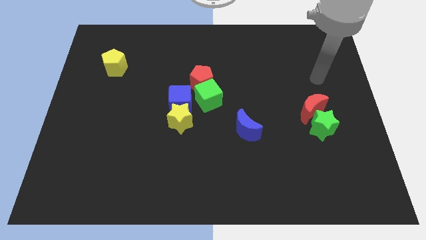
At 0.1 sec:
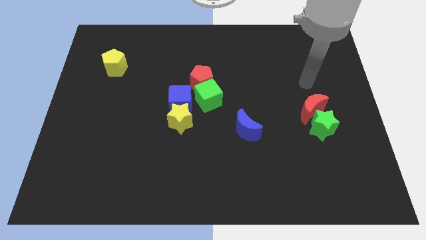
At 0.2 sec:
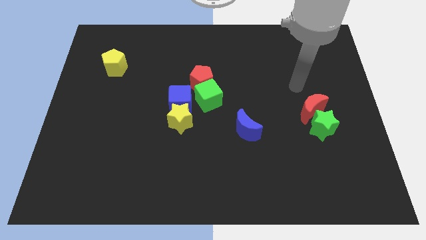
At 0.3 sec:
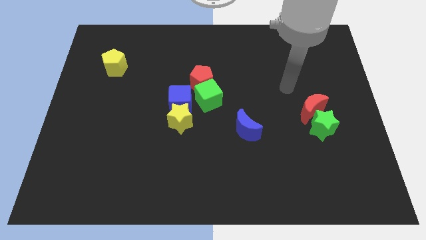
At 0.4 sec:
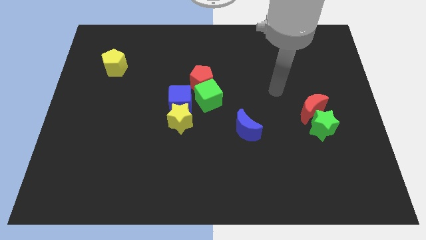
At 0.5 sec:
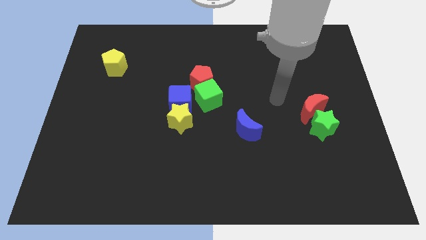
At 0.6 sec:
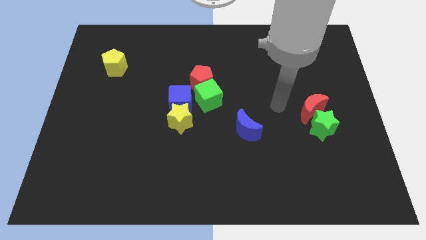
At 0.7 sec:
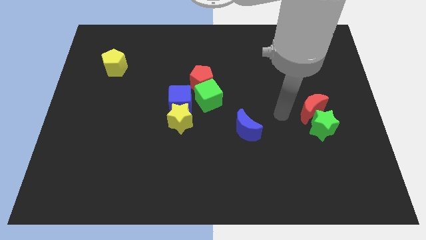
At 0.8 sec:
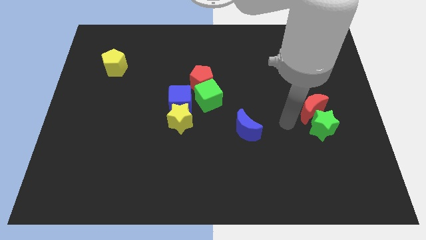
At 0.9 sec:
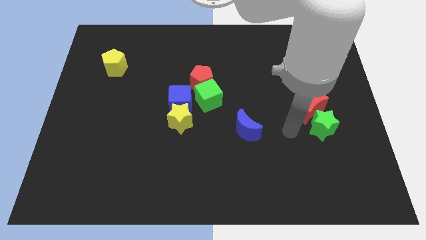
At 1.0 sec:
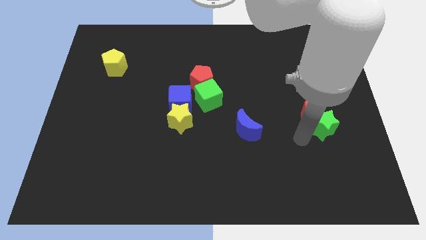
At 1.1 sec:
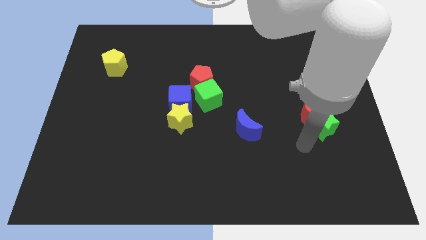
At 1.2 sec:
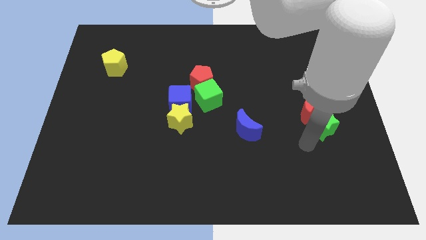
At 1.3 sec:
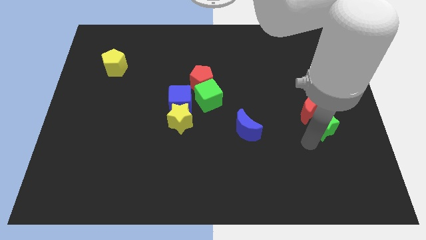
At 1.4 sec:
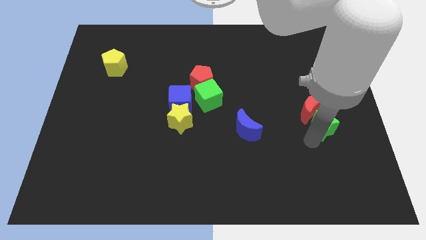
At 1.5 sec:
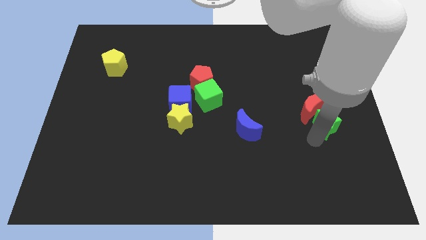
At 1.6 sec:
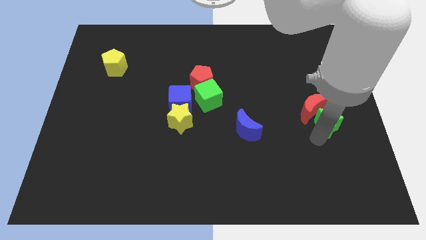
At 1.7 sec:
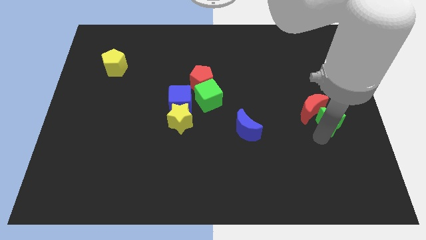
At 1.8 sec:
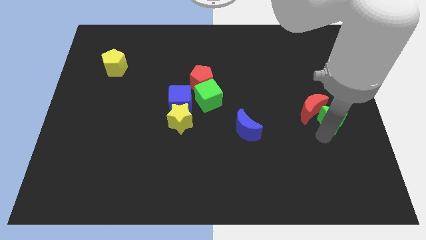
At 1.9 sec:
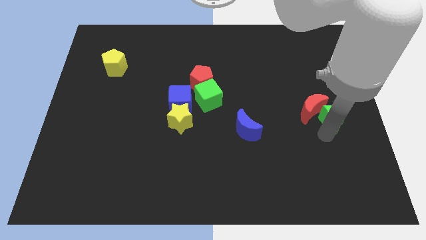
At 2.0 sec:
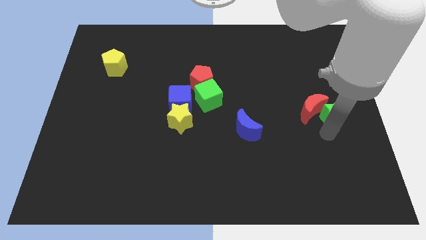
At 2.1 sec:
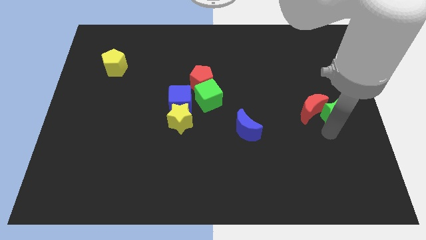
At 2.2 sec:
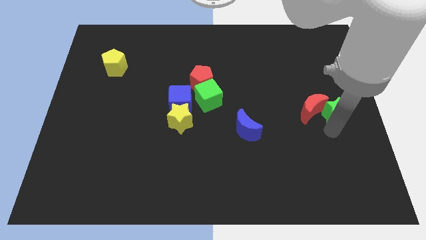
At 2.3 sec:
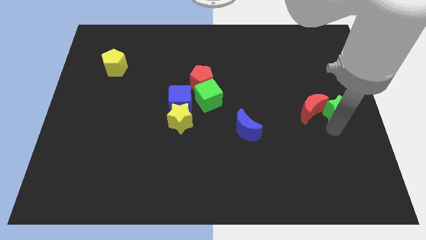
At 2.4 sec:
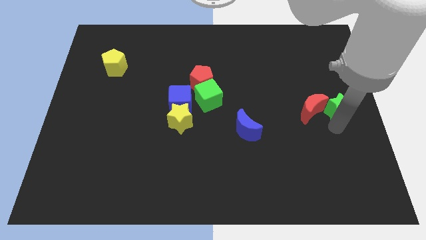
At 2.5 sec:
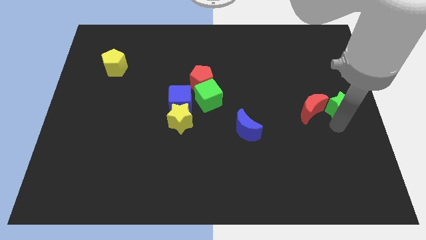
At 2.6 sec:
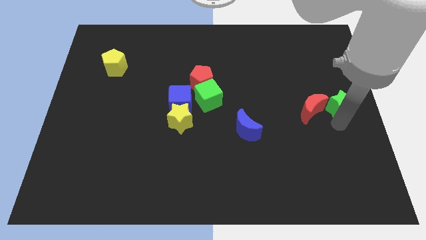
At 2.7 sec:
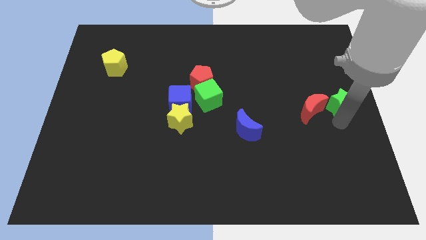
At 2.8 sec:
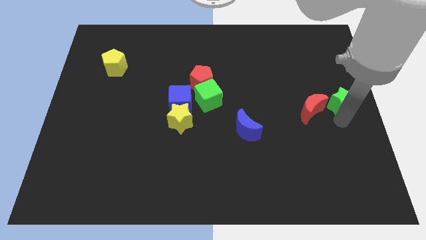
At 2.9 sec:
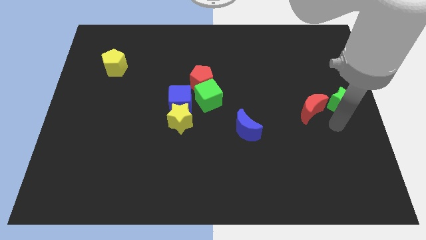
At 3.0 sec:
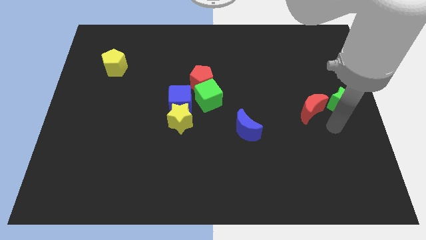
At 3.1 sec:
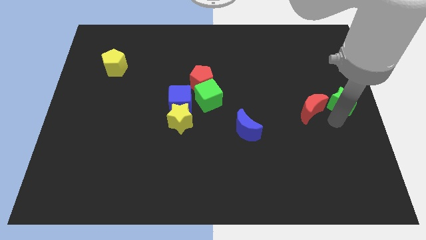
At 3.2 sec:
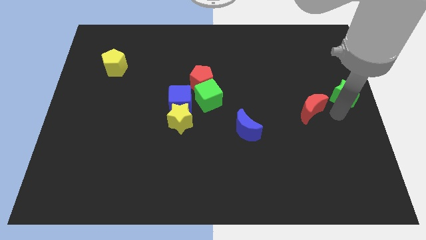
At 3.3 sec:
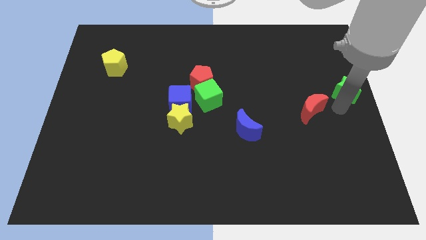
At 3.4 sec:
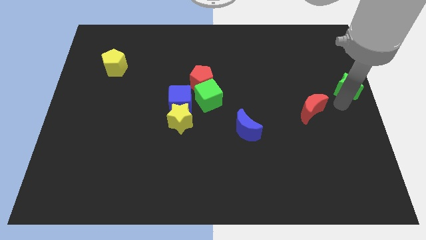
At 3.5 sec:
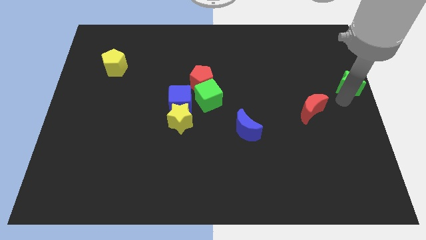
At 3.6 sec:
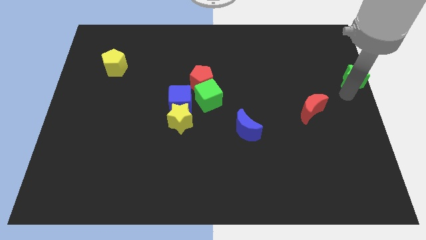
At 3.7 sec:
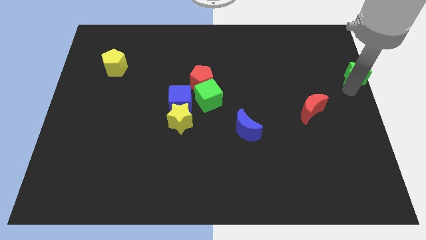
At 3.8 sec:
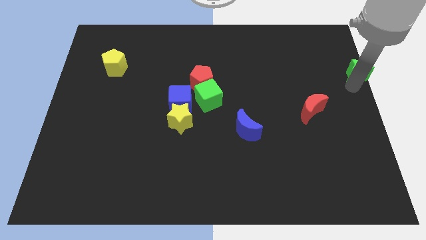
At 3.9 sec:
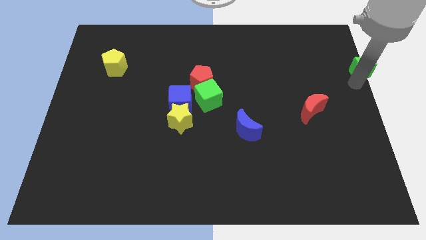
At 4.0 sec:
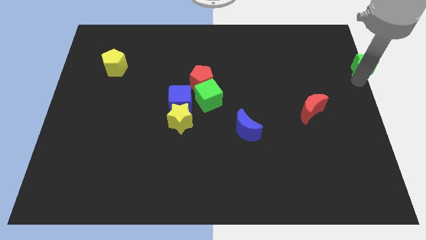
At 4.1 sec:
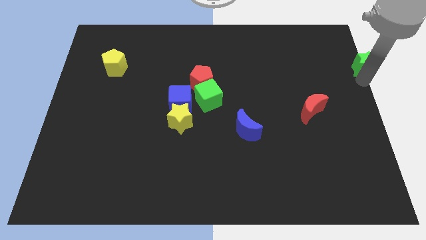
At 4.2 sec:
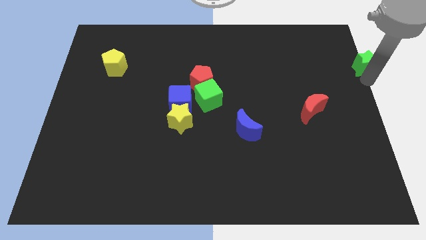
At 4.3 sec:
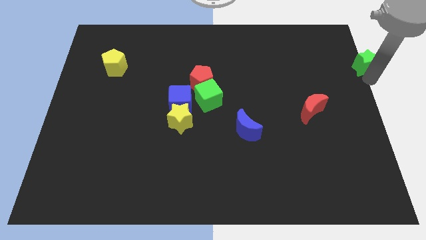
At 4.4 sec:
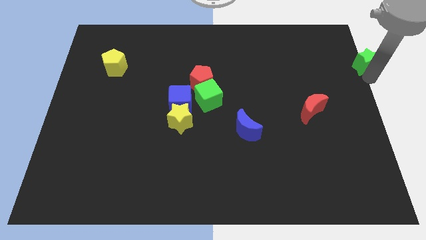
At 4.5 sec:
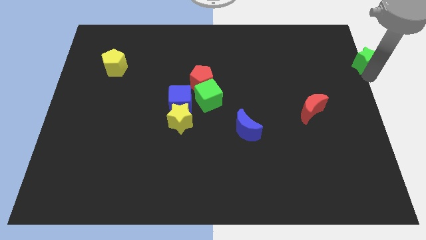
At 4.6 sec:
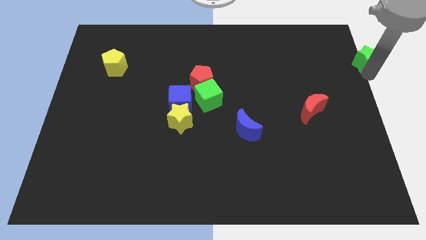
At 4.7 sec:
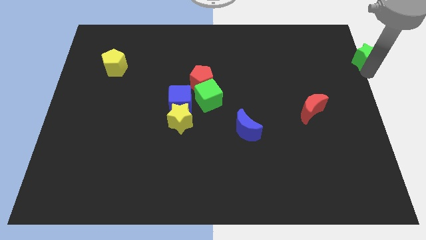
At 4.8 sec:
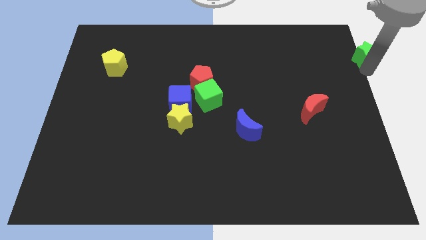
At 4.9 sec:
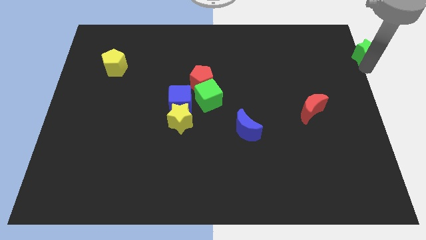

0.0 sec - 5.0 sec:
slide the green star to the top right of the board

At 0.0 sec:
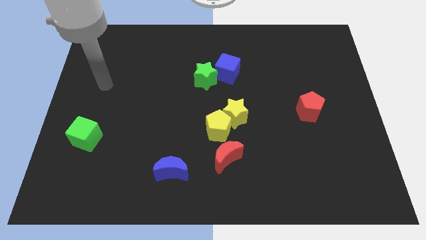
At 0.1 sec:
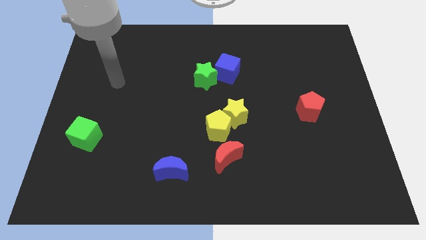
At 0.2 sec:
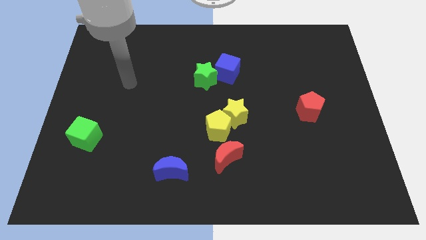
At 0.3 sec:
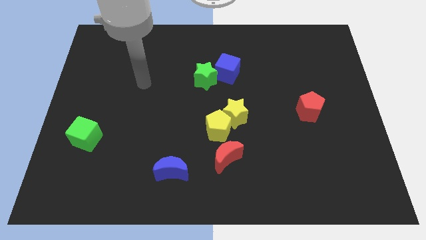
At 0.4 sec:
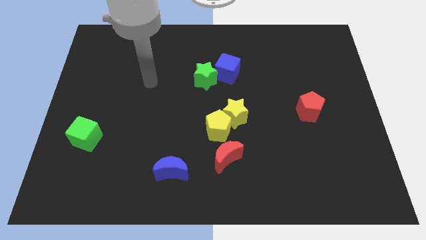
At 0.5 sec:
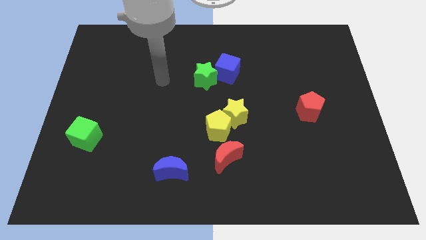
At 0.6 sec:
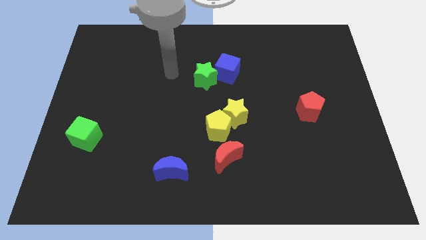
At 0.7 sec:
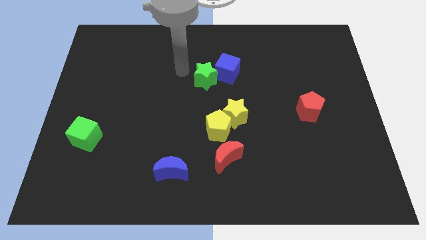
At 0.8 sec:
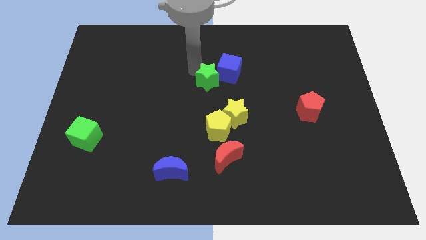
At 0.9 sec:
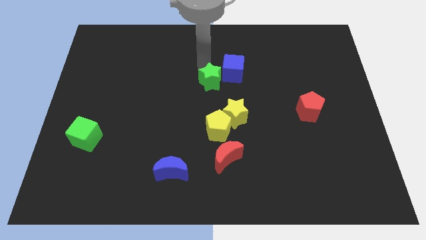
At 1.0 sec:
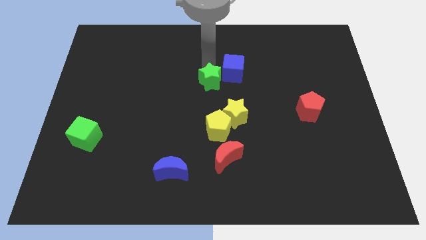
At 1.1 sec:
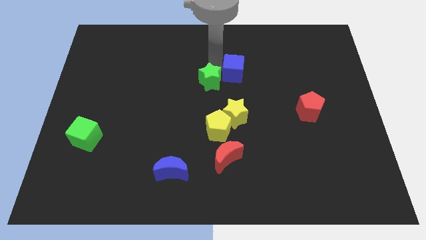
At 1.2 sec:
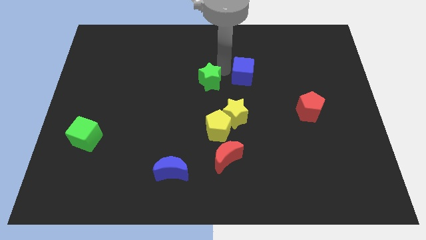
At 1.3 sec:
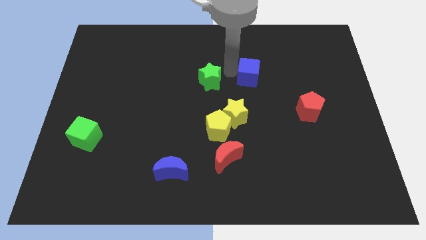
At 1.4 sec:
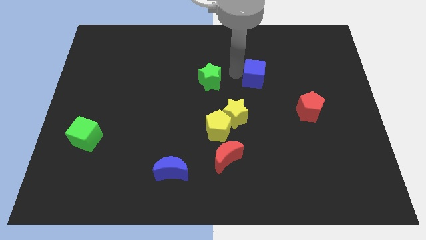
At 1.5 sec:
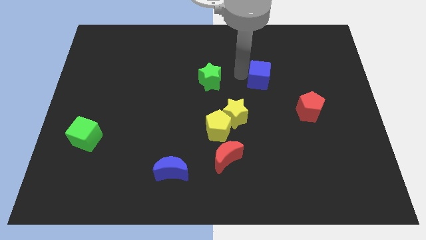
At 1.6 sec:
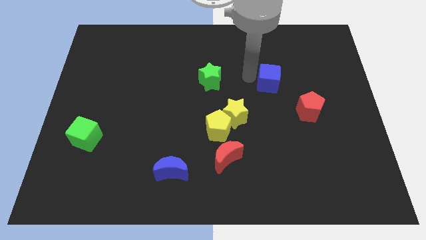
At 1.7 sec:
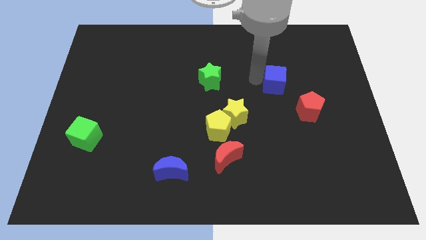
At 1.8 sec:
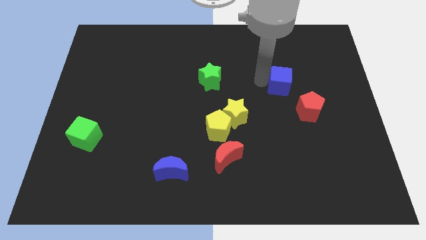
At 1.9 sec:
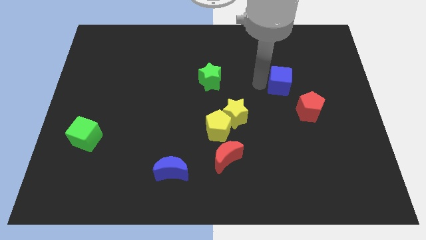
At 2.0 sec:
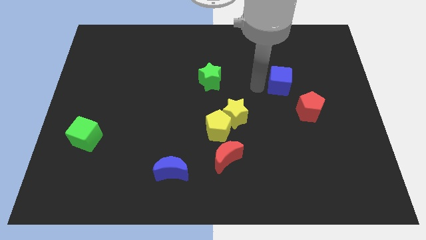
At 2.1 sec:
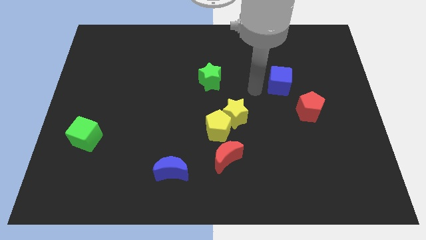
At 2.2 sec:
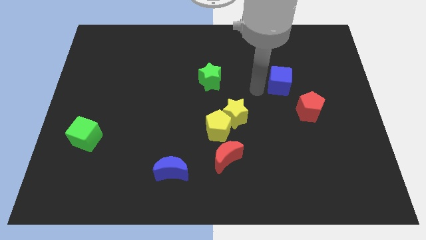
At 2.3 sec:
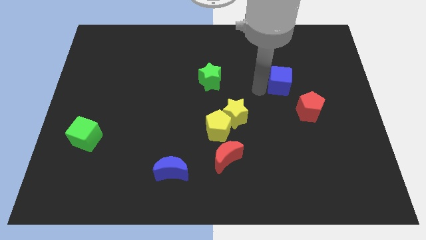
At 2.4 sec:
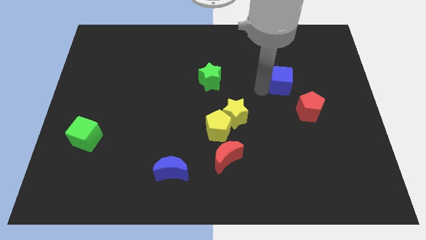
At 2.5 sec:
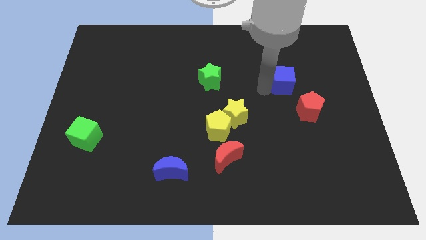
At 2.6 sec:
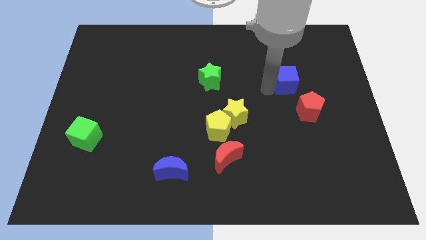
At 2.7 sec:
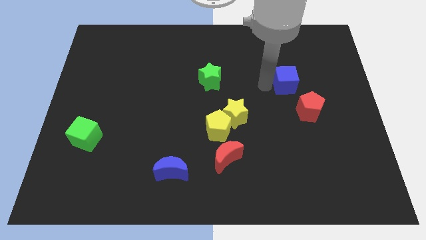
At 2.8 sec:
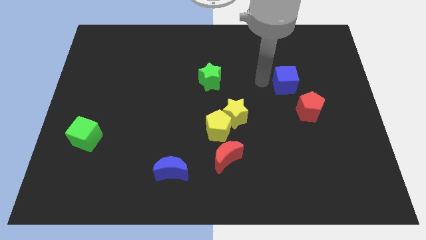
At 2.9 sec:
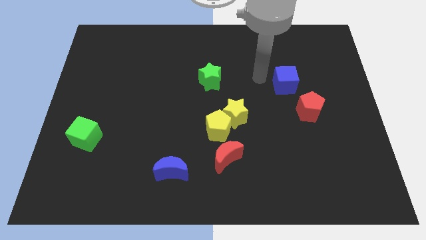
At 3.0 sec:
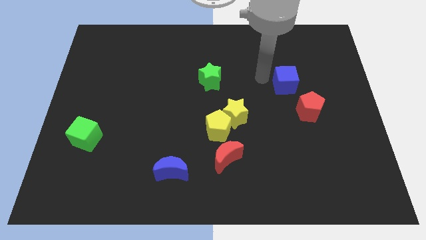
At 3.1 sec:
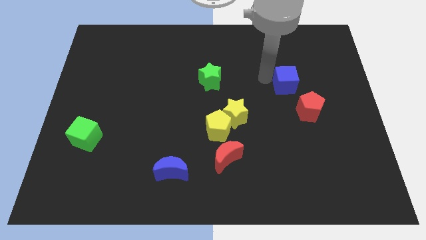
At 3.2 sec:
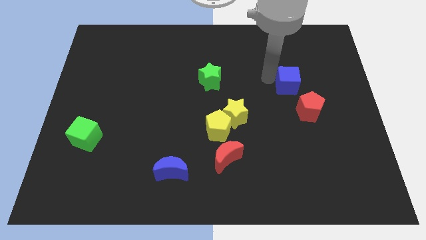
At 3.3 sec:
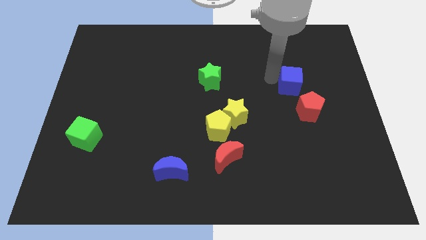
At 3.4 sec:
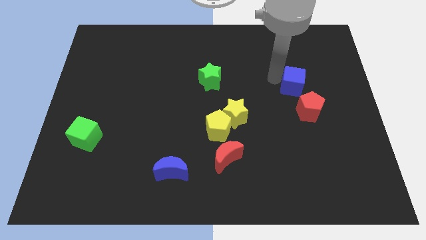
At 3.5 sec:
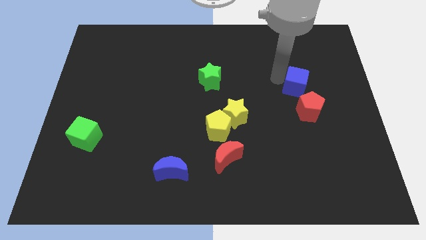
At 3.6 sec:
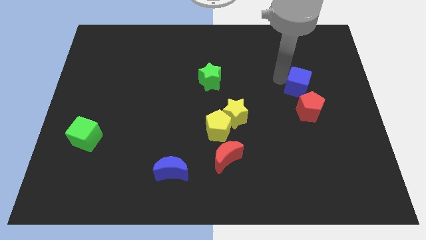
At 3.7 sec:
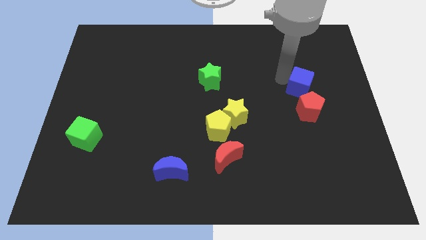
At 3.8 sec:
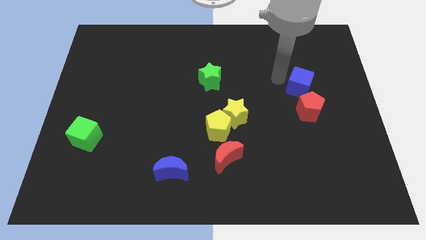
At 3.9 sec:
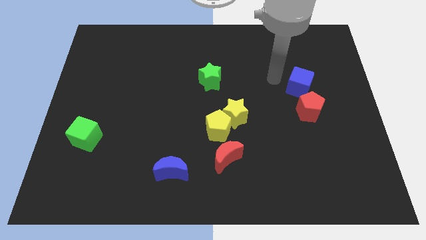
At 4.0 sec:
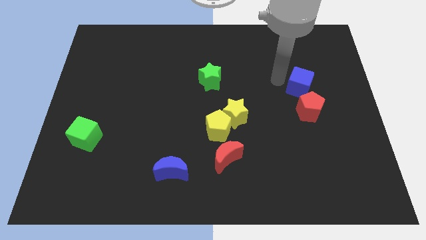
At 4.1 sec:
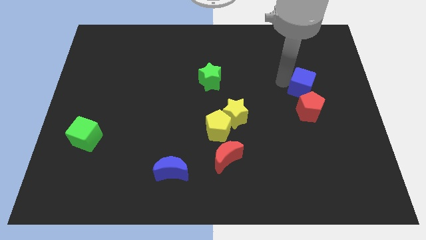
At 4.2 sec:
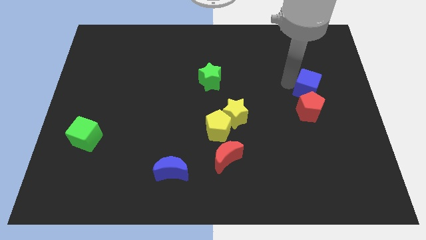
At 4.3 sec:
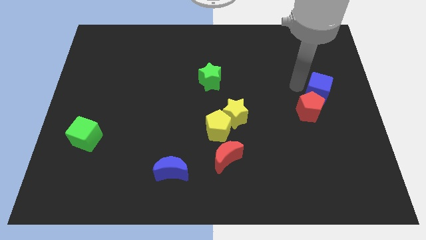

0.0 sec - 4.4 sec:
move the blue cube to the center right
